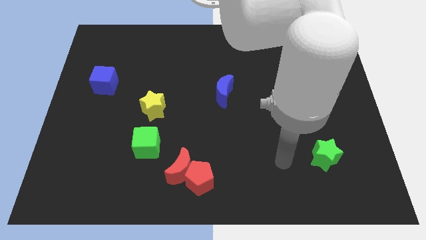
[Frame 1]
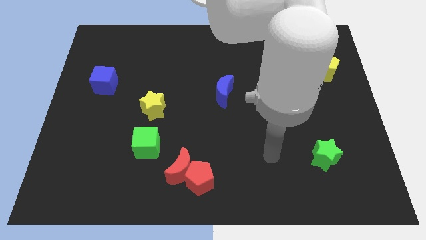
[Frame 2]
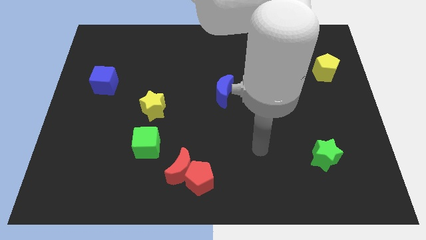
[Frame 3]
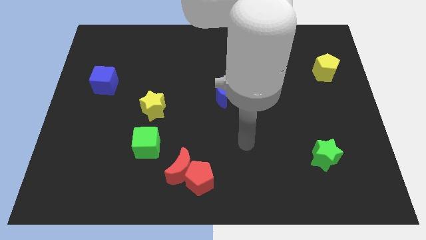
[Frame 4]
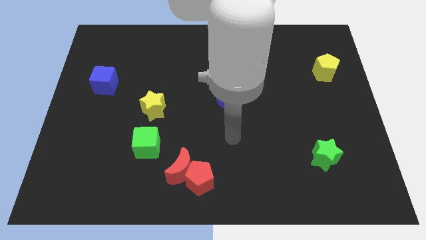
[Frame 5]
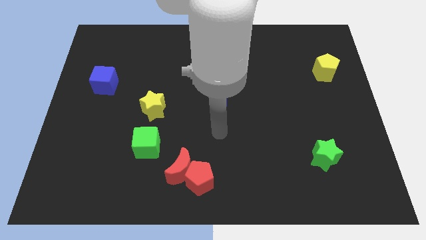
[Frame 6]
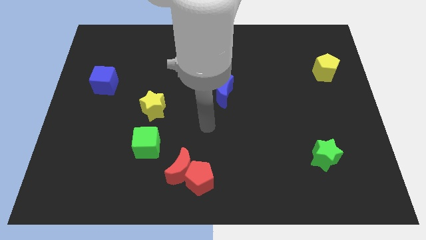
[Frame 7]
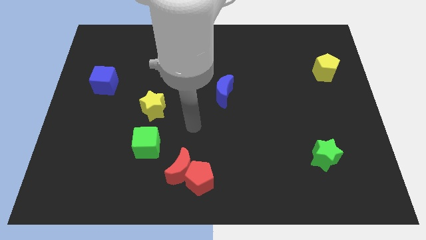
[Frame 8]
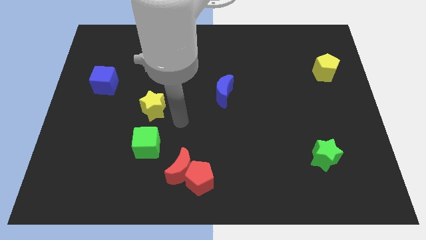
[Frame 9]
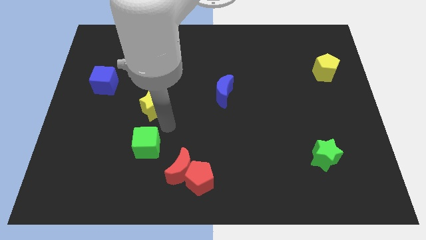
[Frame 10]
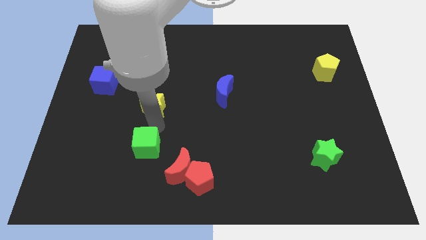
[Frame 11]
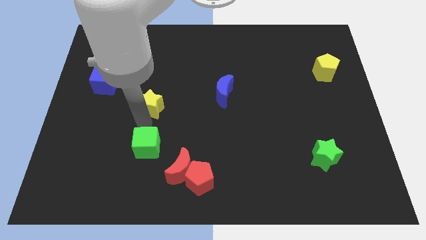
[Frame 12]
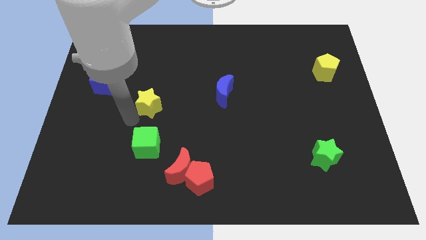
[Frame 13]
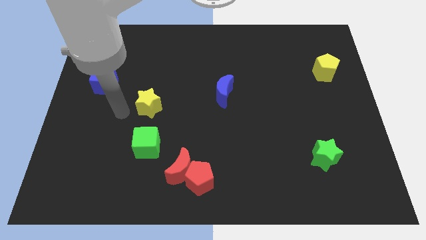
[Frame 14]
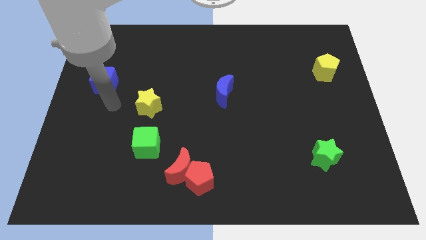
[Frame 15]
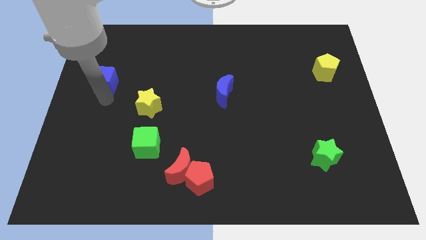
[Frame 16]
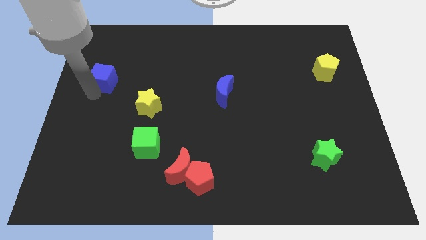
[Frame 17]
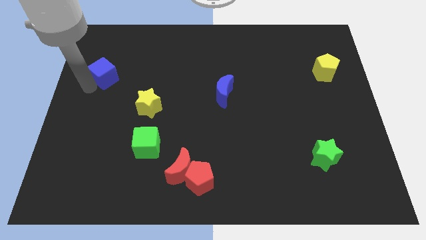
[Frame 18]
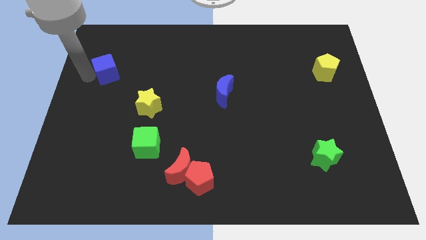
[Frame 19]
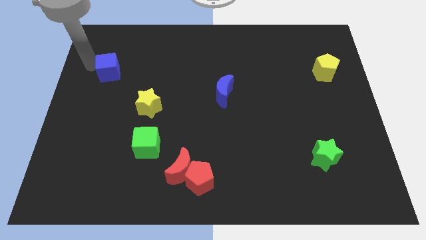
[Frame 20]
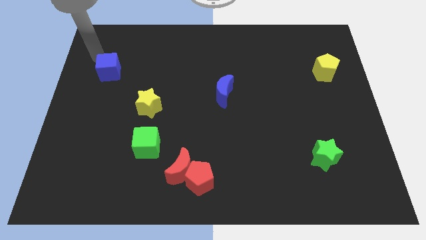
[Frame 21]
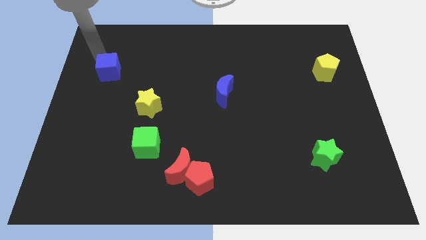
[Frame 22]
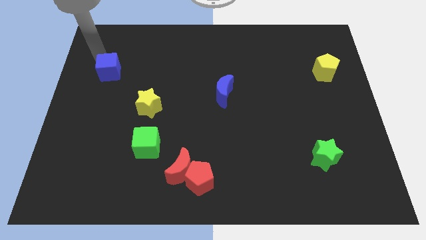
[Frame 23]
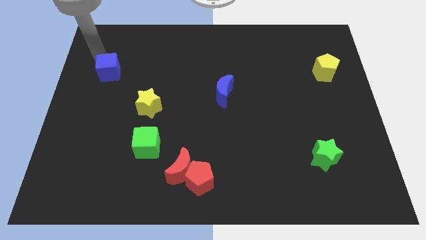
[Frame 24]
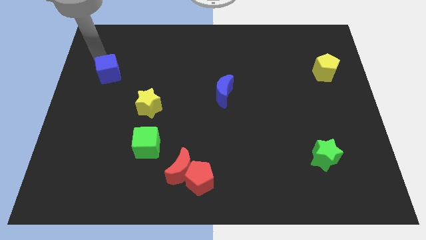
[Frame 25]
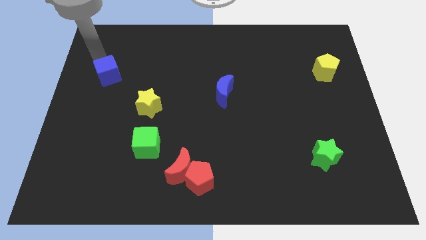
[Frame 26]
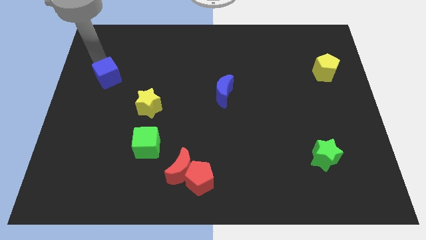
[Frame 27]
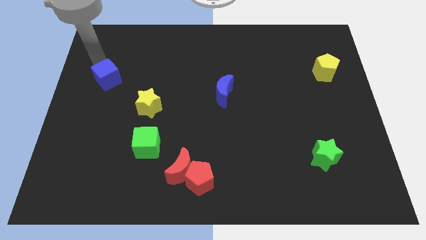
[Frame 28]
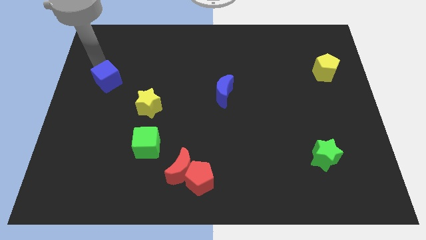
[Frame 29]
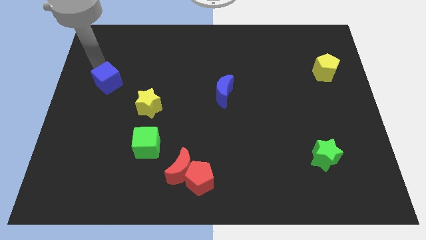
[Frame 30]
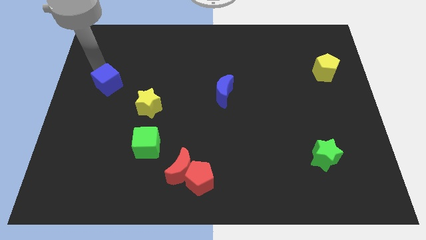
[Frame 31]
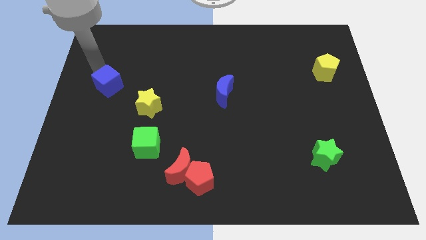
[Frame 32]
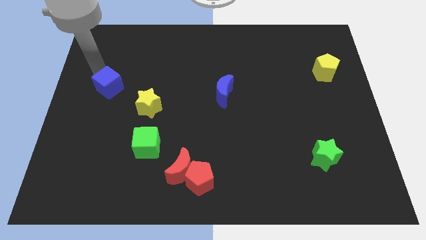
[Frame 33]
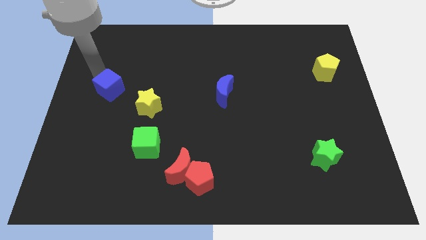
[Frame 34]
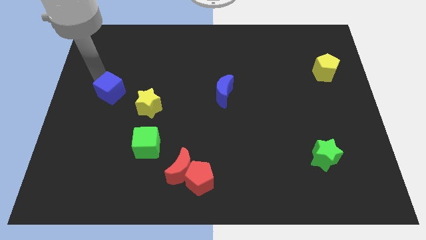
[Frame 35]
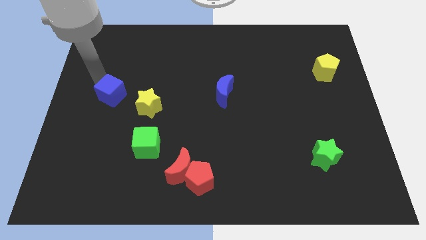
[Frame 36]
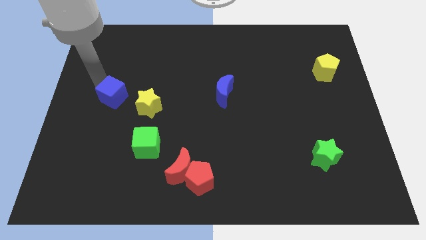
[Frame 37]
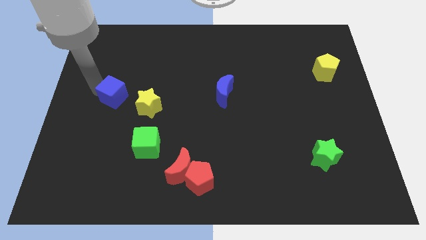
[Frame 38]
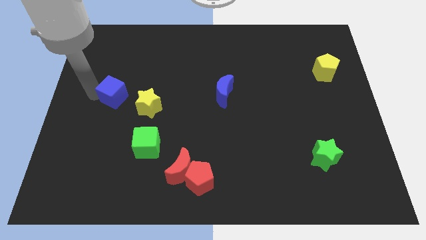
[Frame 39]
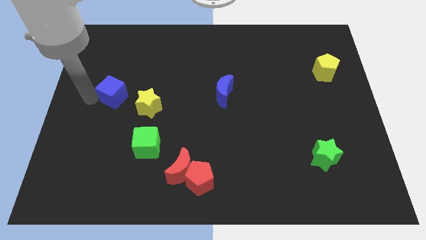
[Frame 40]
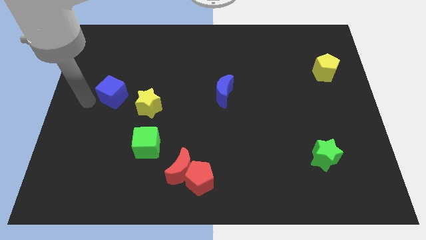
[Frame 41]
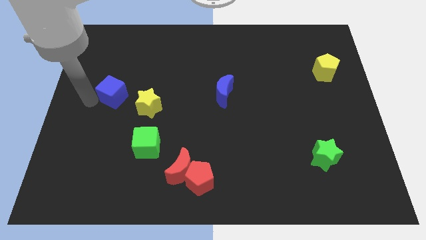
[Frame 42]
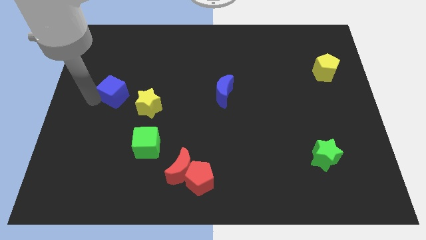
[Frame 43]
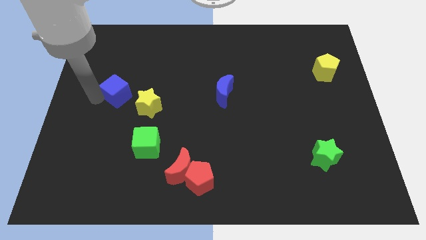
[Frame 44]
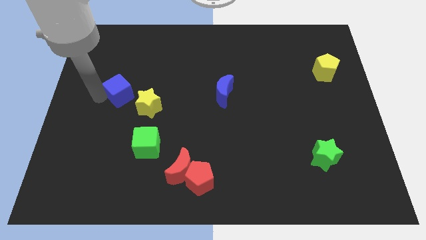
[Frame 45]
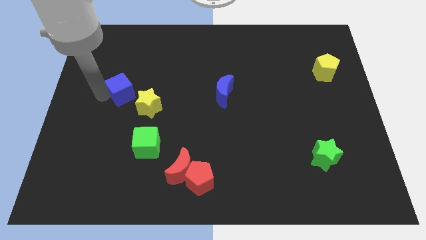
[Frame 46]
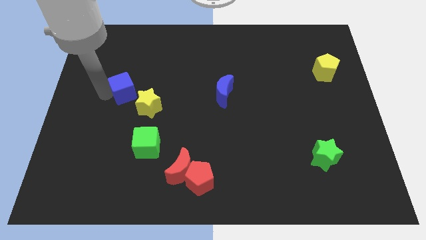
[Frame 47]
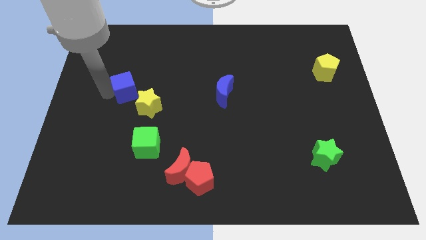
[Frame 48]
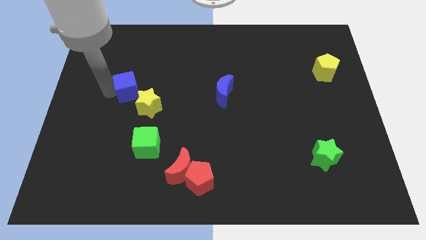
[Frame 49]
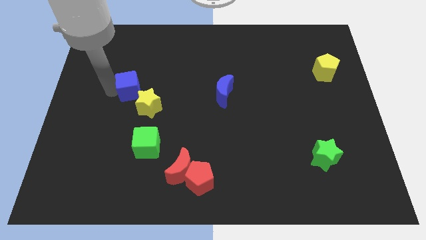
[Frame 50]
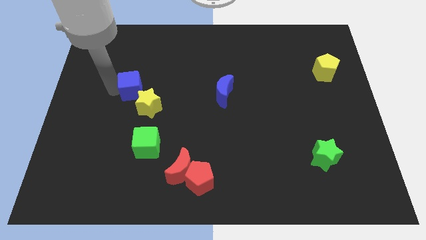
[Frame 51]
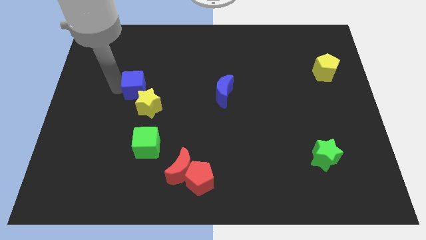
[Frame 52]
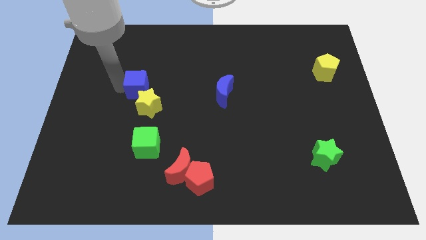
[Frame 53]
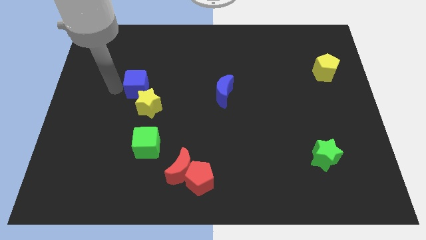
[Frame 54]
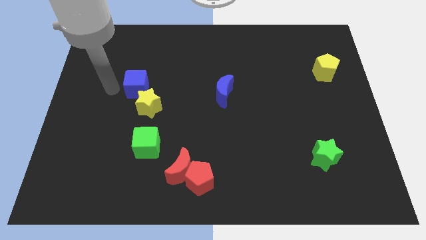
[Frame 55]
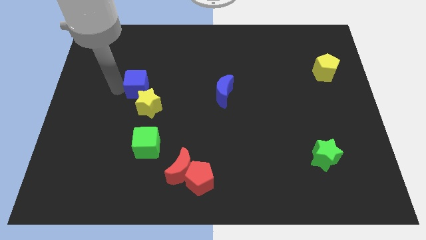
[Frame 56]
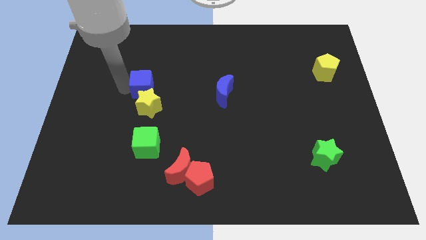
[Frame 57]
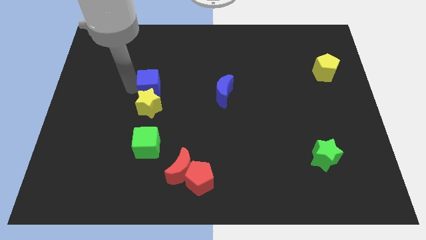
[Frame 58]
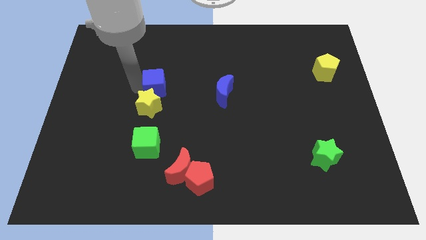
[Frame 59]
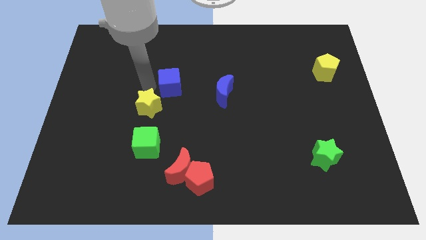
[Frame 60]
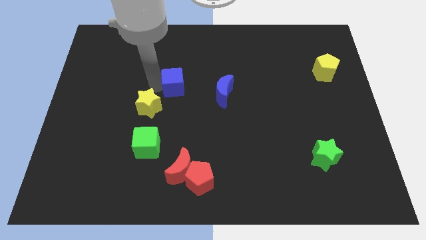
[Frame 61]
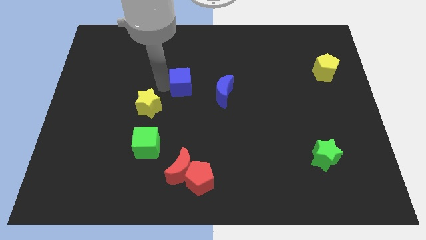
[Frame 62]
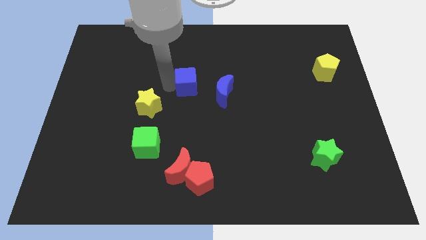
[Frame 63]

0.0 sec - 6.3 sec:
move the blue cube to the right

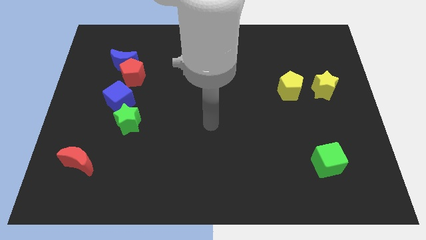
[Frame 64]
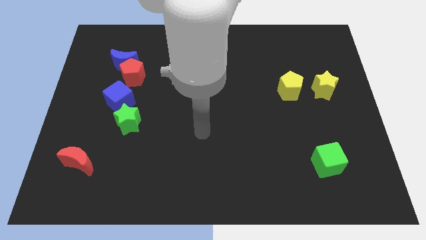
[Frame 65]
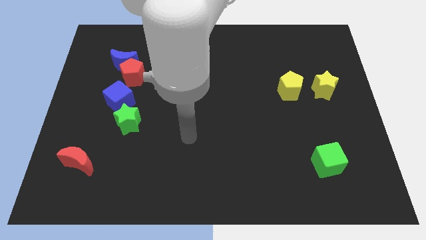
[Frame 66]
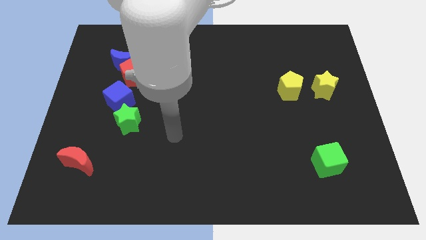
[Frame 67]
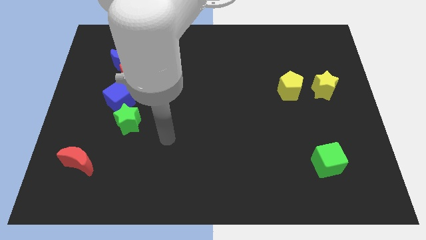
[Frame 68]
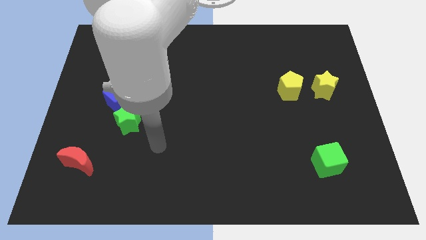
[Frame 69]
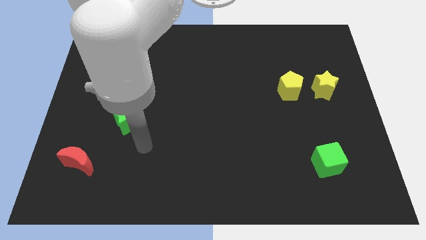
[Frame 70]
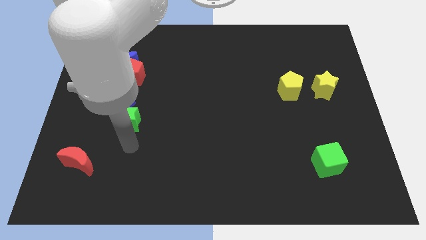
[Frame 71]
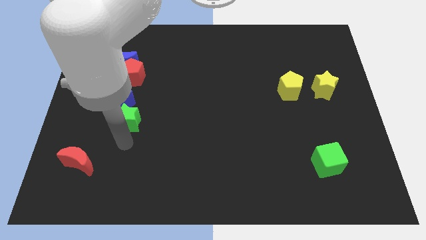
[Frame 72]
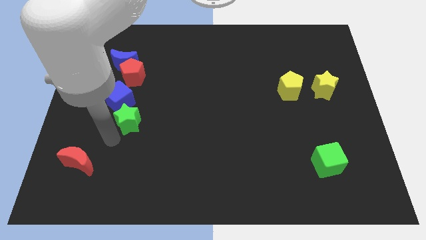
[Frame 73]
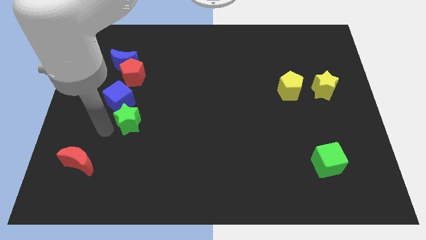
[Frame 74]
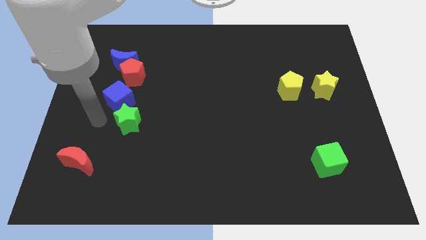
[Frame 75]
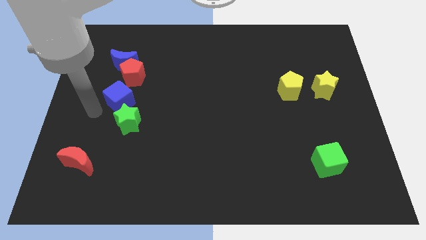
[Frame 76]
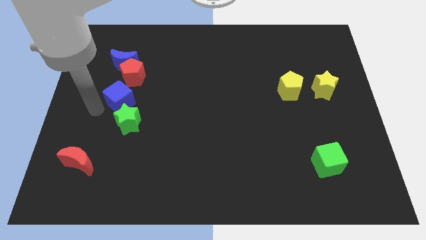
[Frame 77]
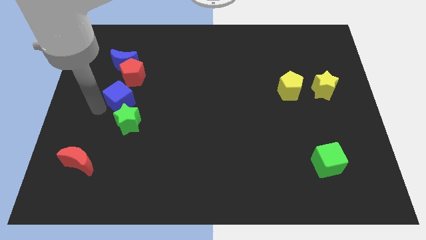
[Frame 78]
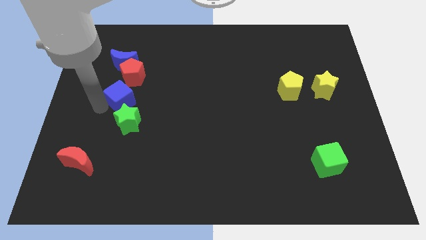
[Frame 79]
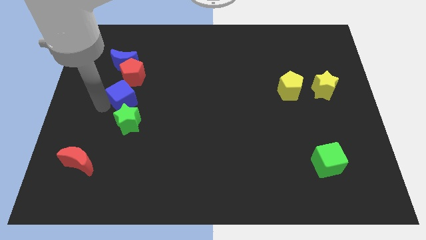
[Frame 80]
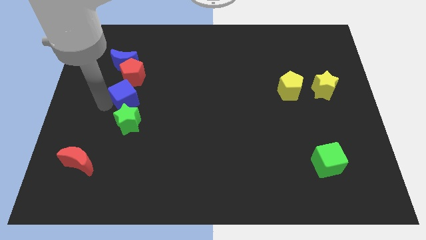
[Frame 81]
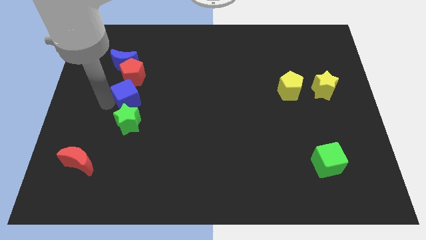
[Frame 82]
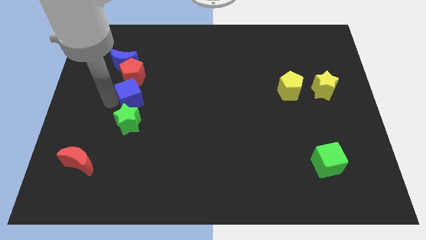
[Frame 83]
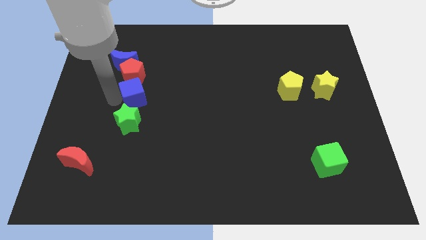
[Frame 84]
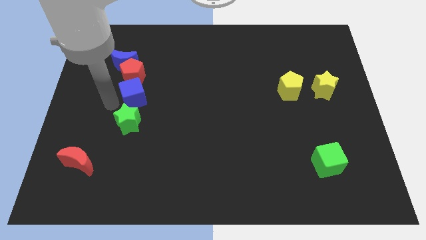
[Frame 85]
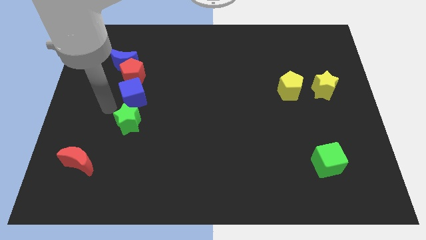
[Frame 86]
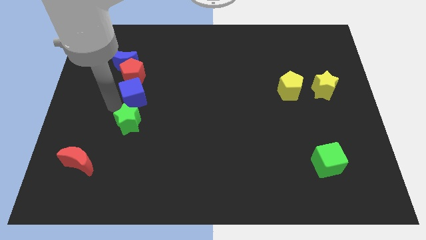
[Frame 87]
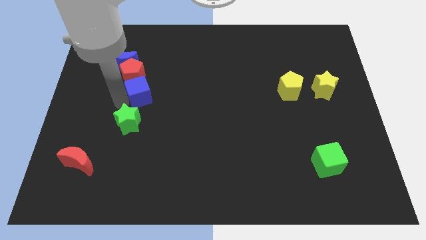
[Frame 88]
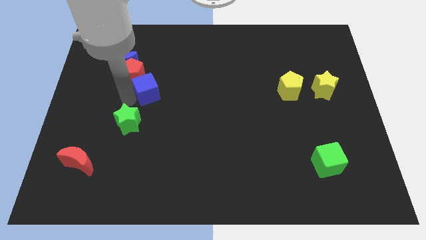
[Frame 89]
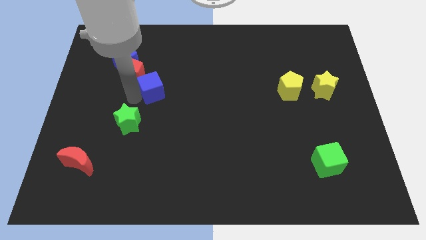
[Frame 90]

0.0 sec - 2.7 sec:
slightly push the blue cube up and to the right diagonally
